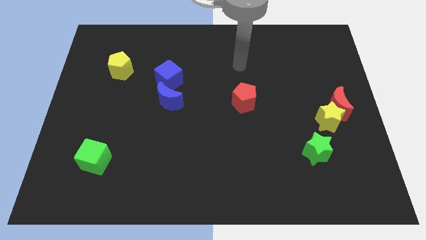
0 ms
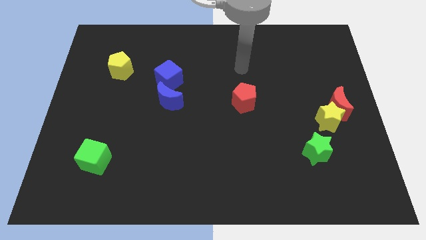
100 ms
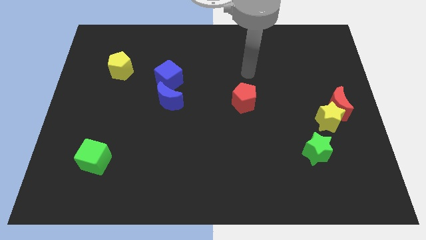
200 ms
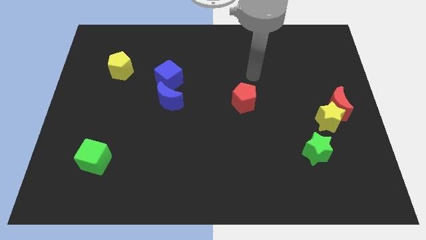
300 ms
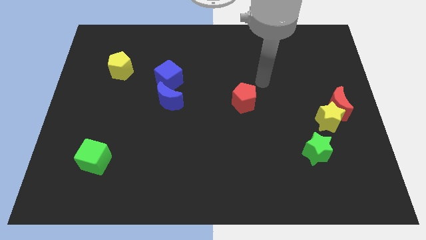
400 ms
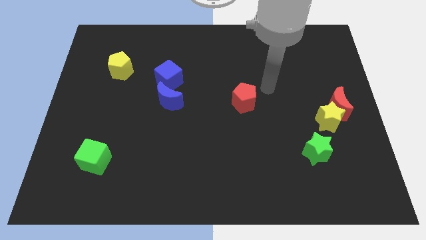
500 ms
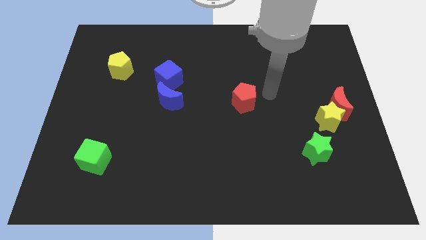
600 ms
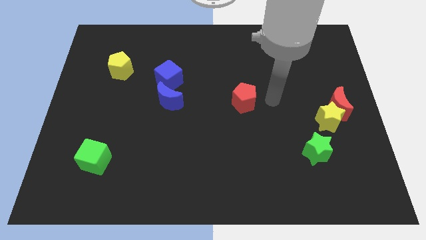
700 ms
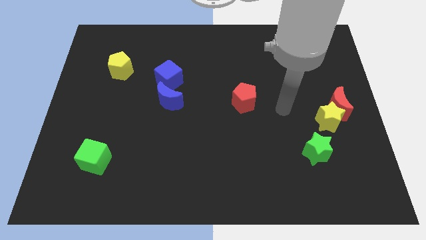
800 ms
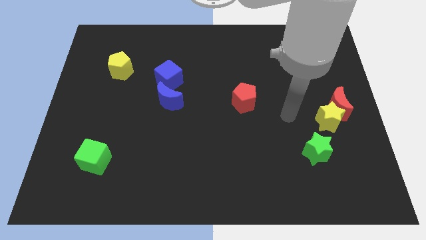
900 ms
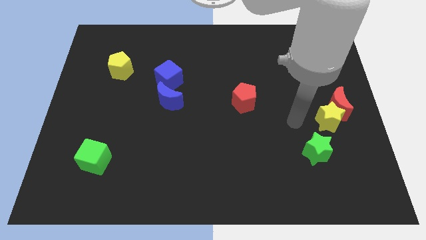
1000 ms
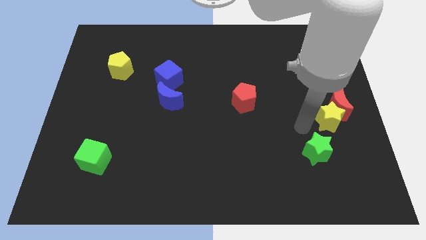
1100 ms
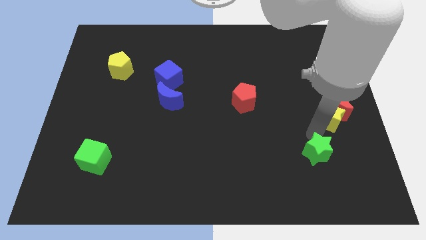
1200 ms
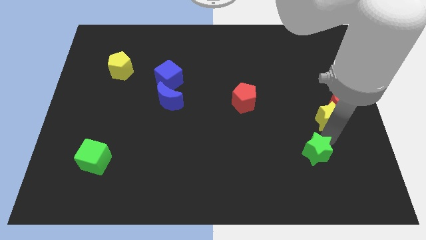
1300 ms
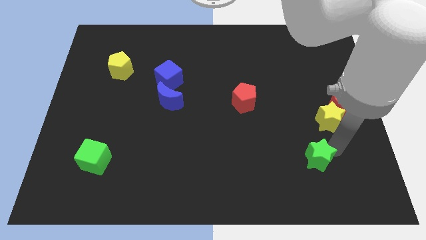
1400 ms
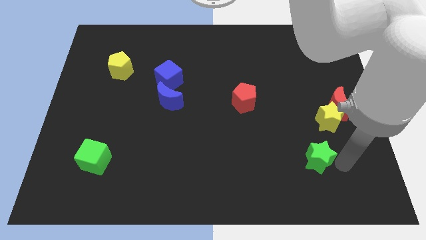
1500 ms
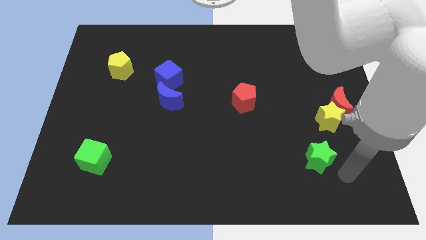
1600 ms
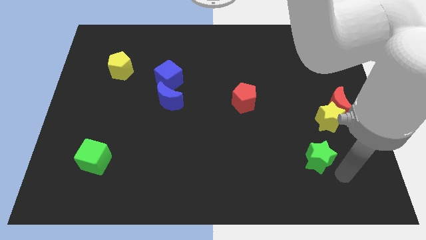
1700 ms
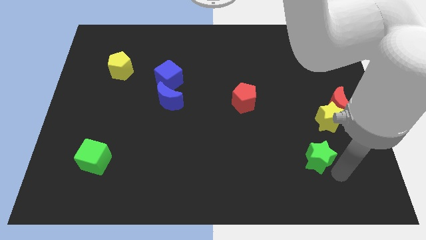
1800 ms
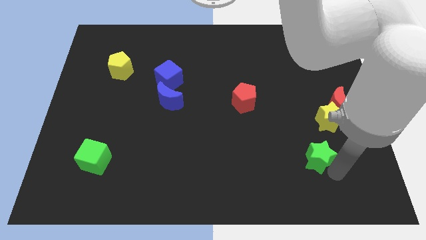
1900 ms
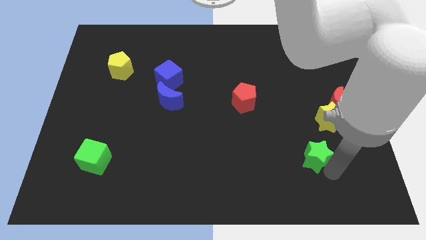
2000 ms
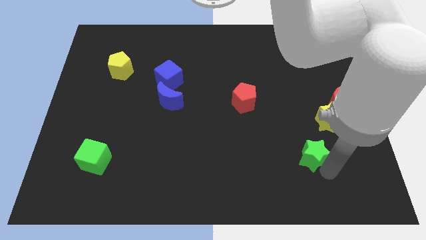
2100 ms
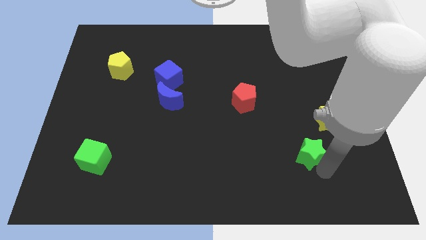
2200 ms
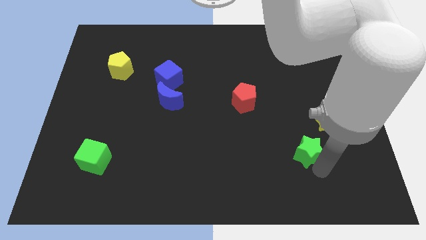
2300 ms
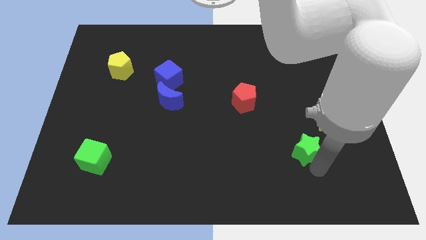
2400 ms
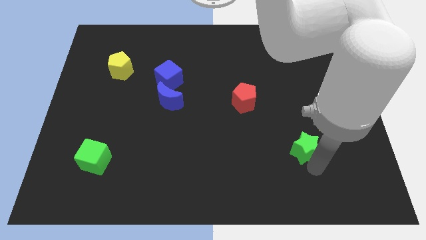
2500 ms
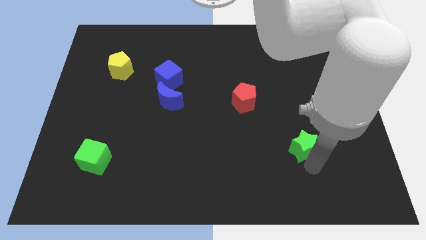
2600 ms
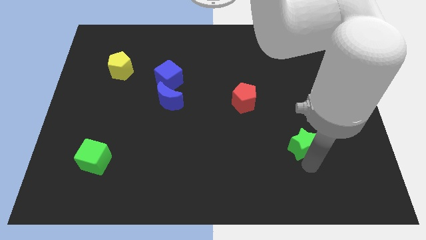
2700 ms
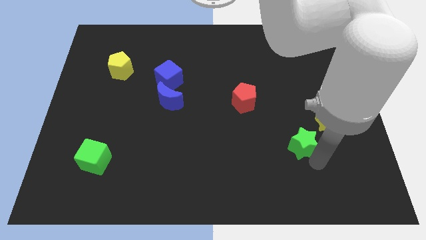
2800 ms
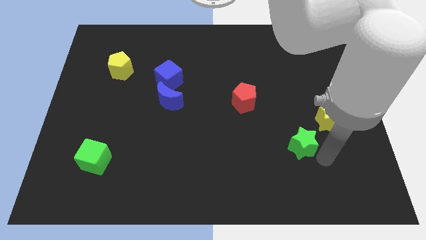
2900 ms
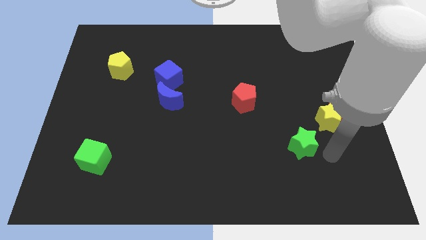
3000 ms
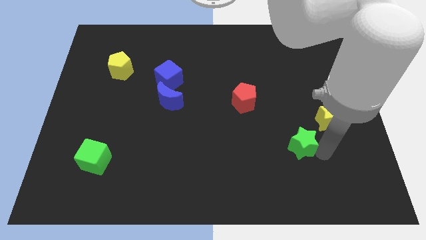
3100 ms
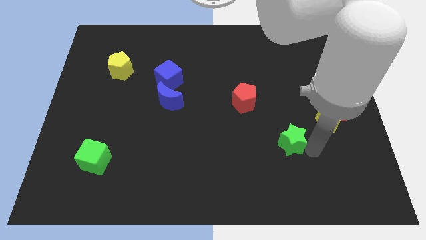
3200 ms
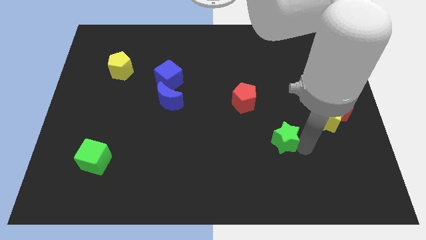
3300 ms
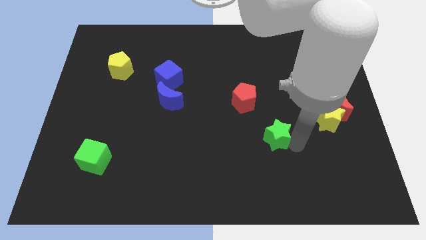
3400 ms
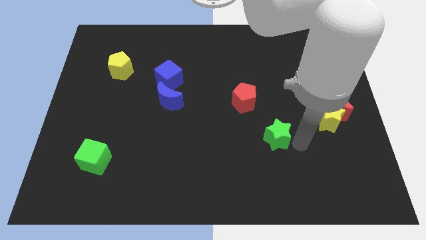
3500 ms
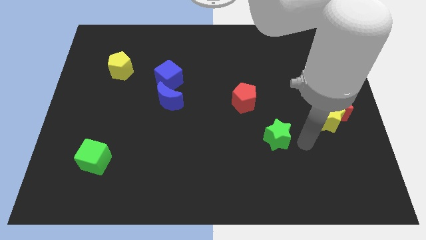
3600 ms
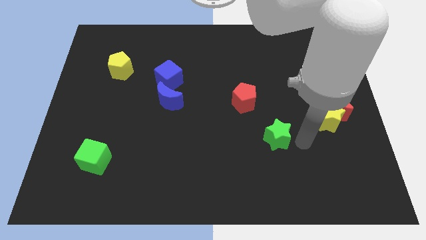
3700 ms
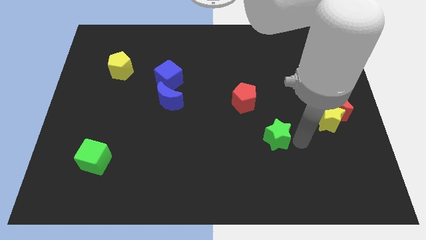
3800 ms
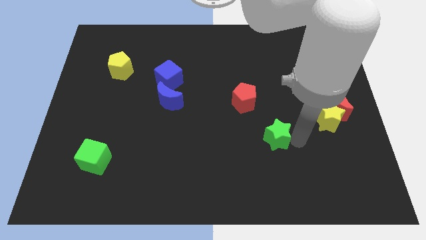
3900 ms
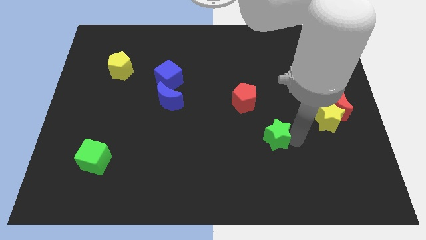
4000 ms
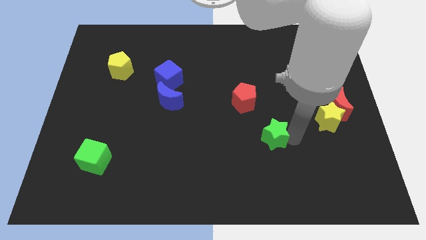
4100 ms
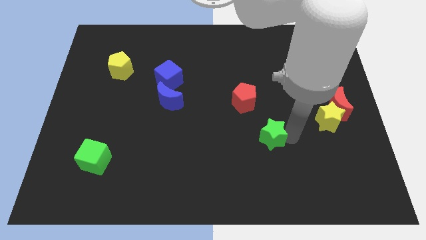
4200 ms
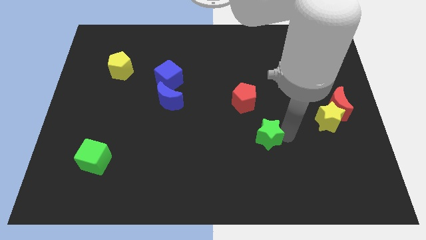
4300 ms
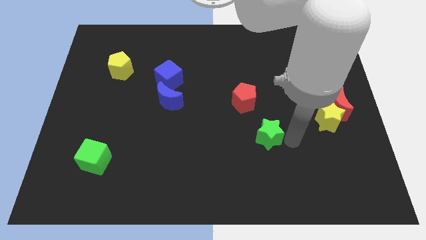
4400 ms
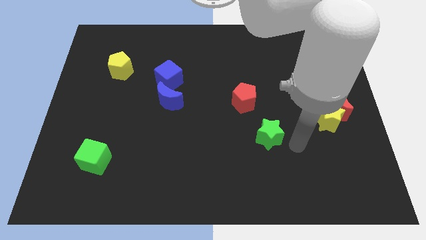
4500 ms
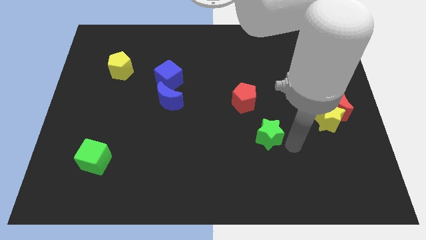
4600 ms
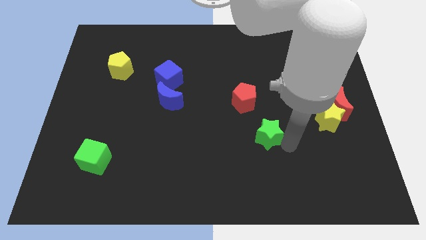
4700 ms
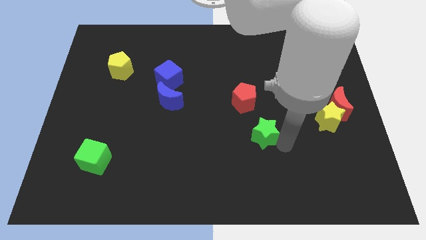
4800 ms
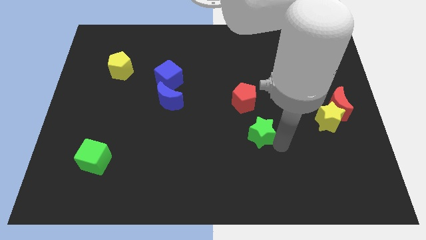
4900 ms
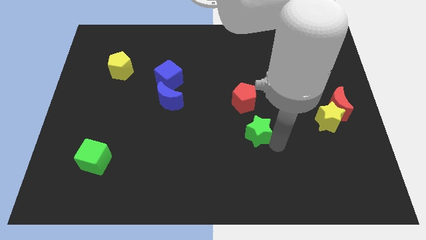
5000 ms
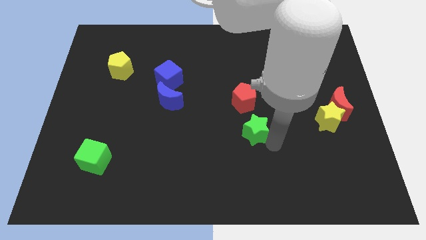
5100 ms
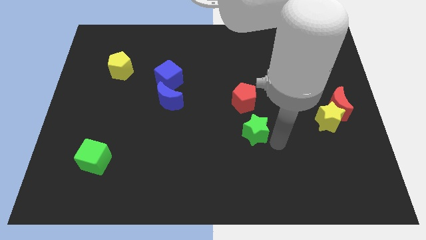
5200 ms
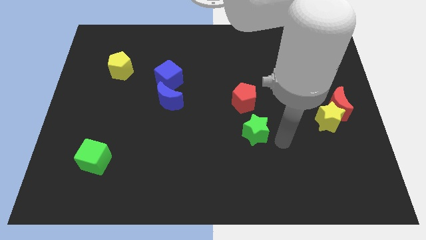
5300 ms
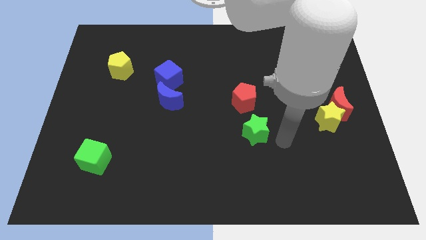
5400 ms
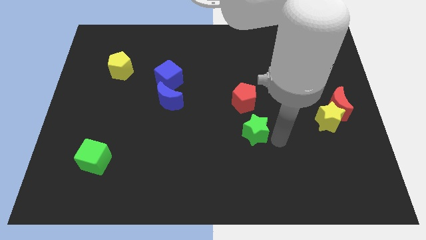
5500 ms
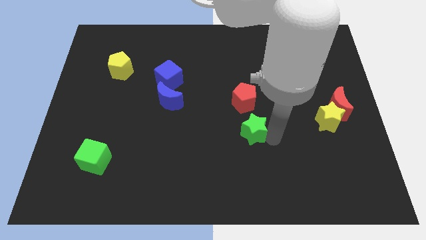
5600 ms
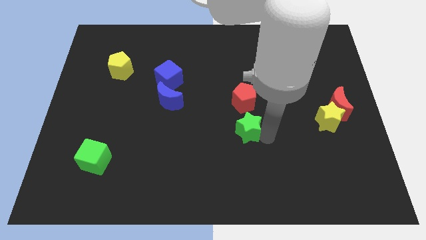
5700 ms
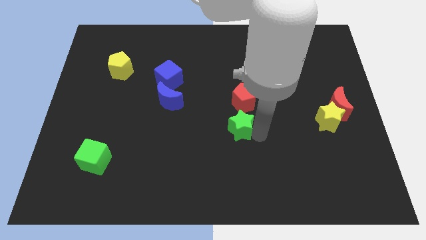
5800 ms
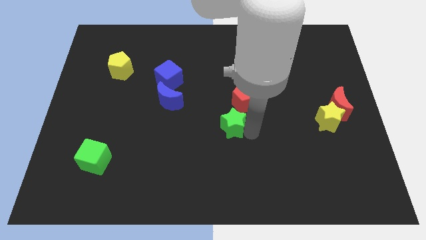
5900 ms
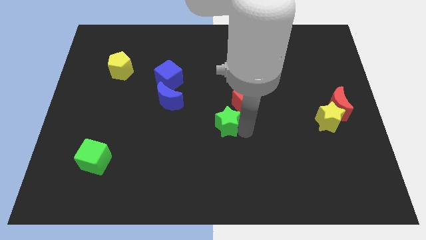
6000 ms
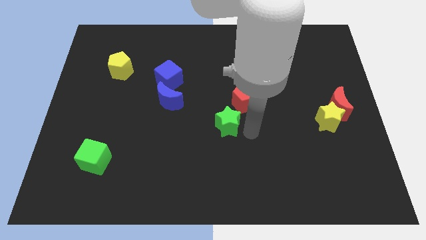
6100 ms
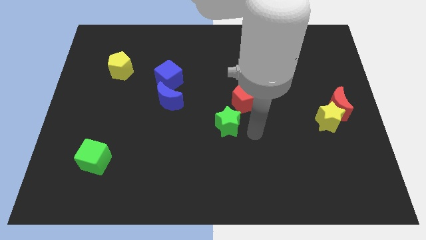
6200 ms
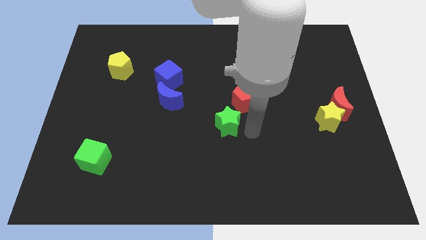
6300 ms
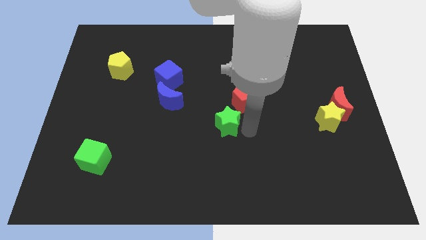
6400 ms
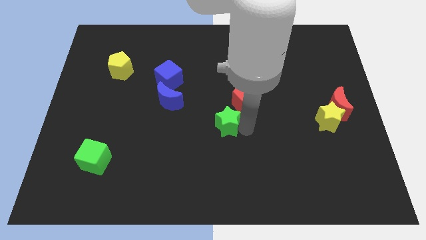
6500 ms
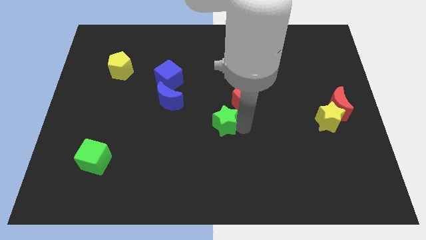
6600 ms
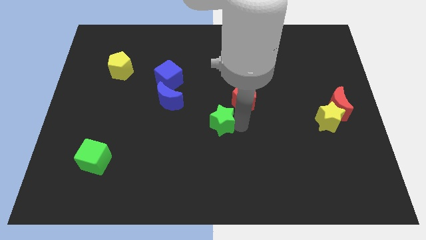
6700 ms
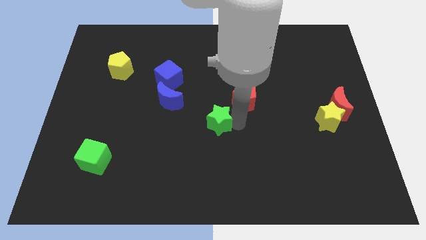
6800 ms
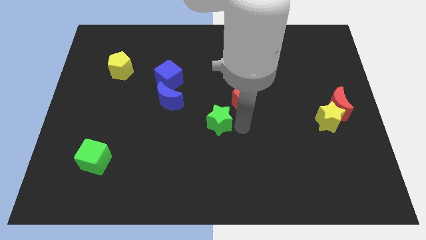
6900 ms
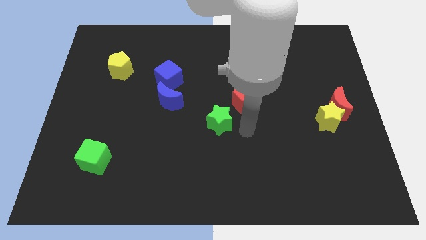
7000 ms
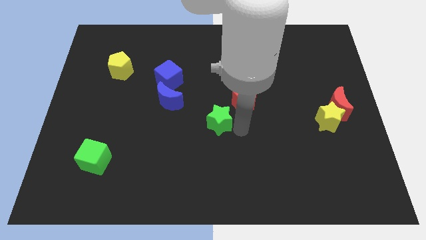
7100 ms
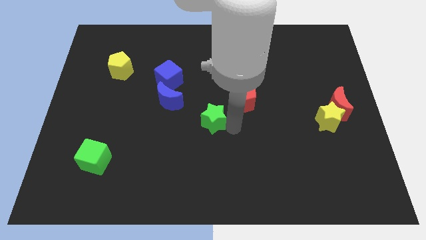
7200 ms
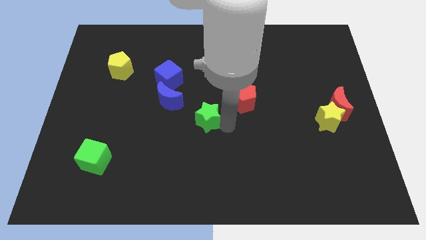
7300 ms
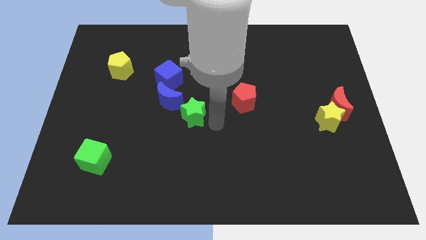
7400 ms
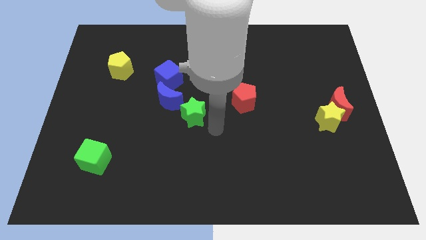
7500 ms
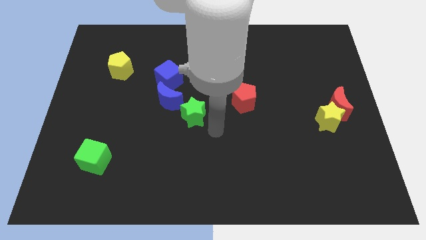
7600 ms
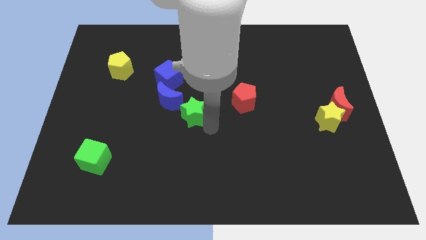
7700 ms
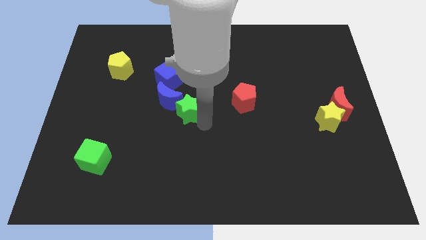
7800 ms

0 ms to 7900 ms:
slide the green star next to the blue moon

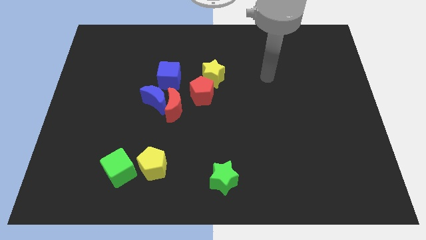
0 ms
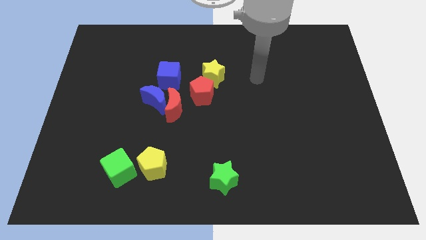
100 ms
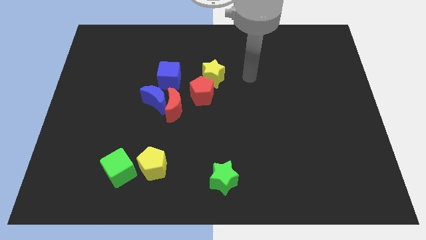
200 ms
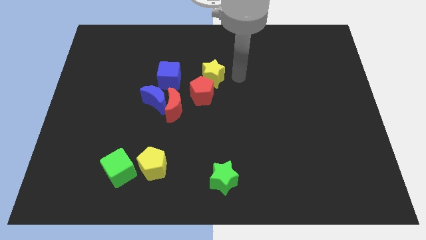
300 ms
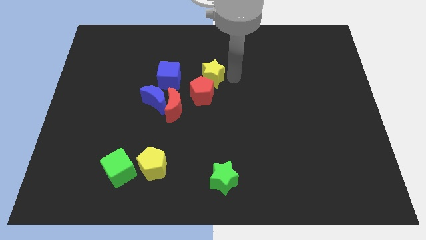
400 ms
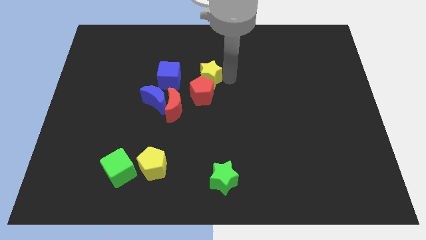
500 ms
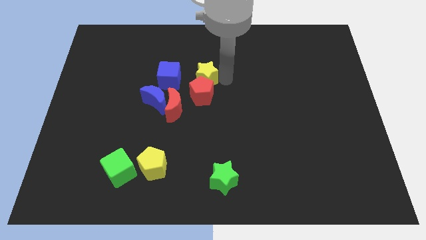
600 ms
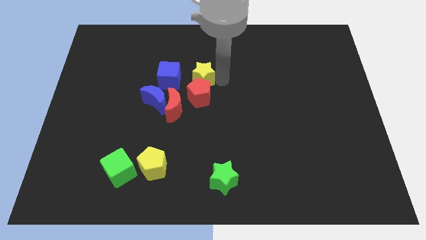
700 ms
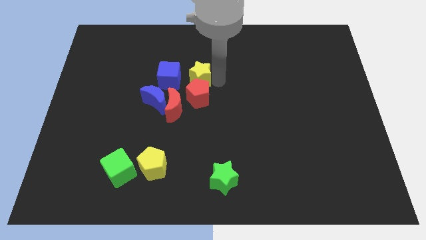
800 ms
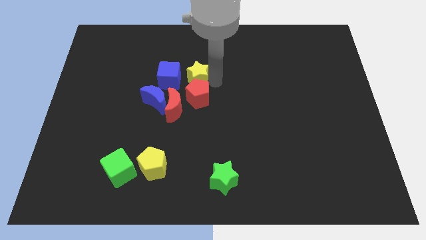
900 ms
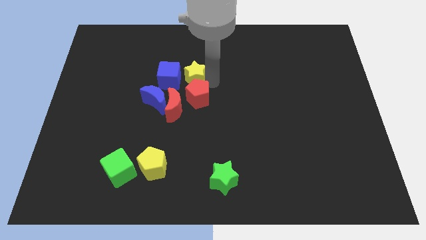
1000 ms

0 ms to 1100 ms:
move the yellow star next to the blue cube
